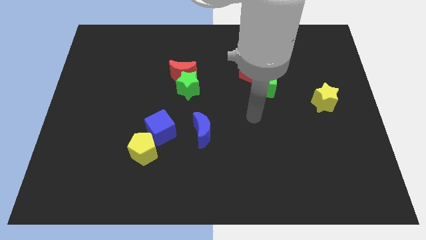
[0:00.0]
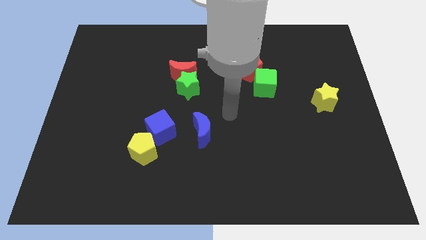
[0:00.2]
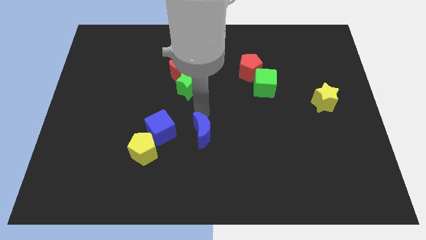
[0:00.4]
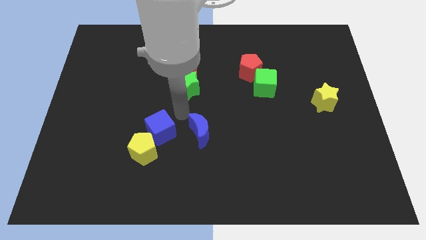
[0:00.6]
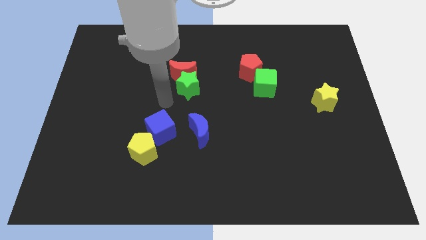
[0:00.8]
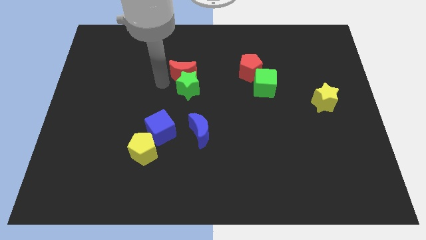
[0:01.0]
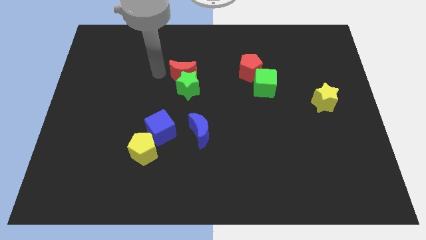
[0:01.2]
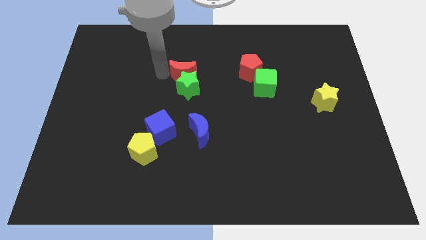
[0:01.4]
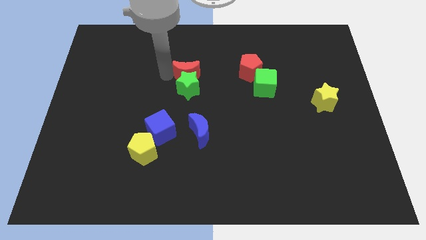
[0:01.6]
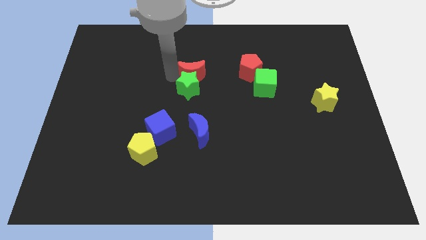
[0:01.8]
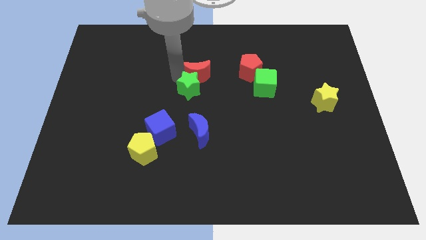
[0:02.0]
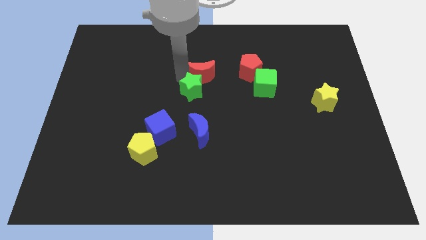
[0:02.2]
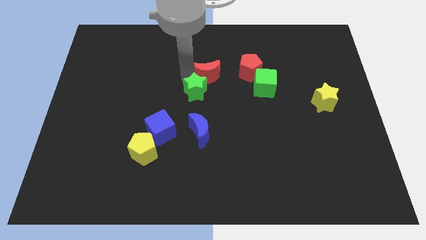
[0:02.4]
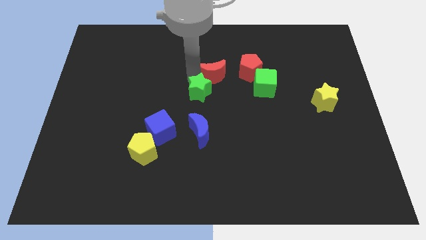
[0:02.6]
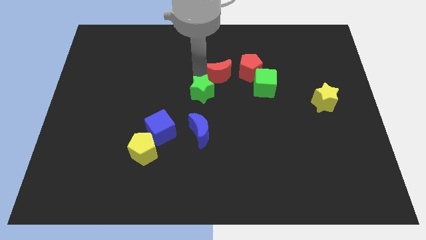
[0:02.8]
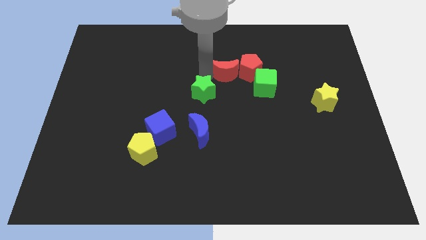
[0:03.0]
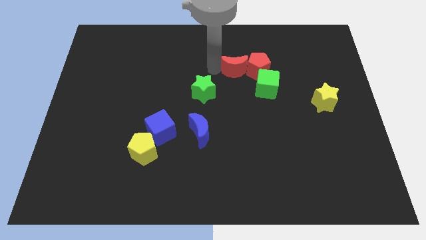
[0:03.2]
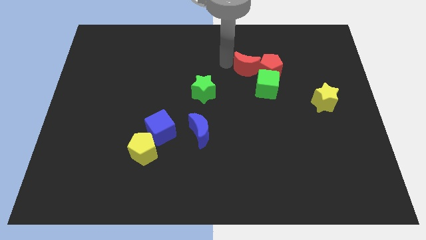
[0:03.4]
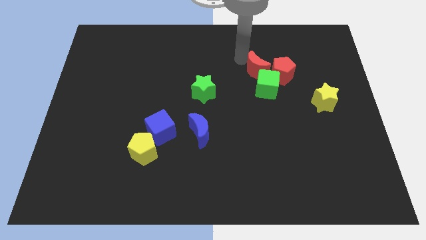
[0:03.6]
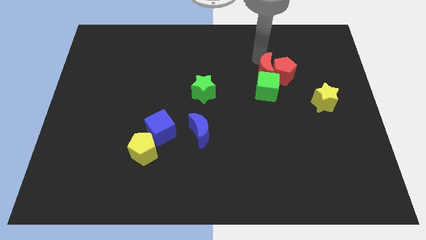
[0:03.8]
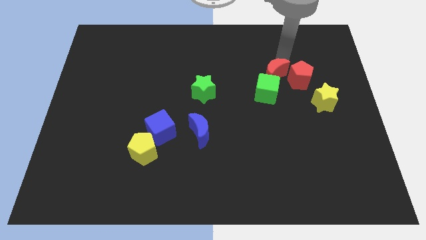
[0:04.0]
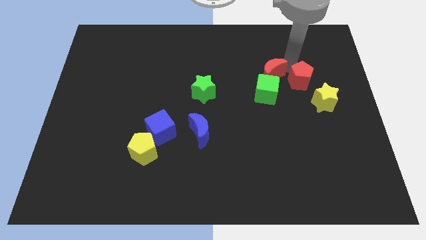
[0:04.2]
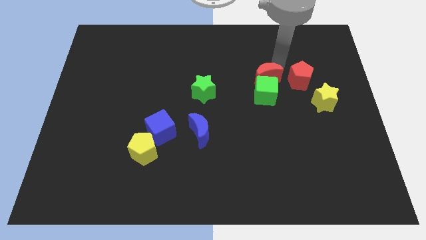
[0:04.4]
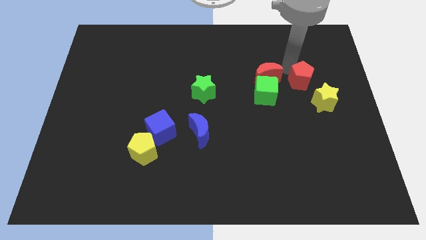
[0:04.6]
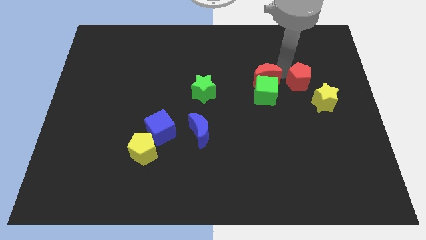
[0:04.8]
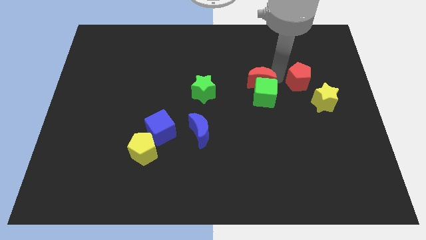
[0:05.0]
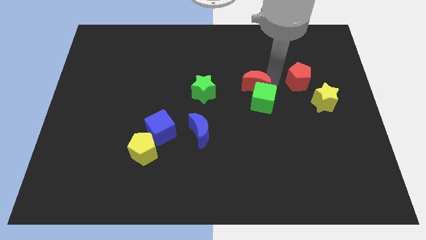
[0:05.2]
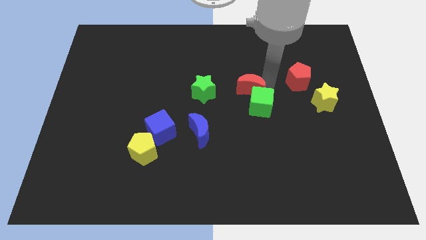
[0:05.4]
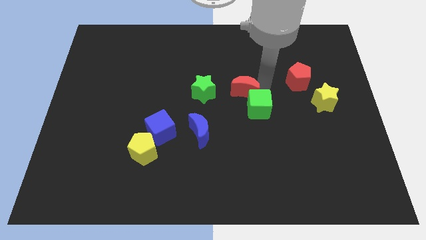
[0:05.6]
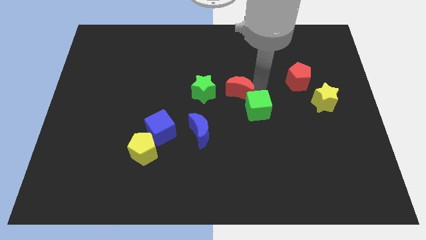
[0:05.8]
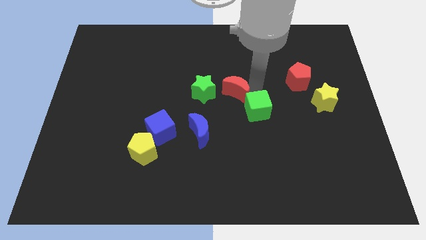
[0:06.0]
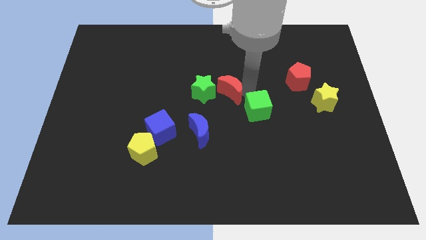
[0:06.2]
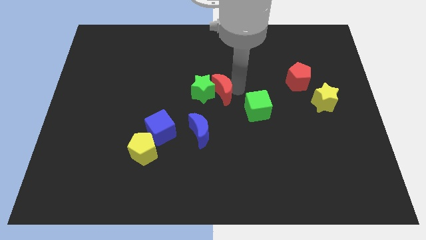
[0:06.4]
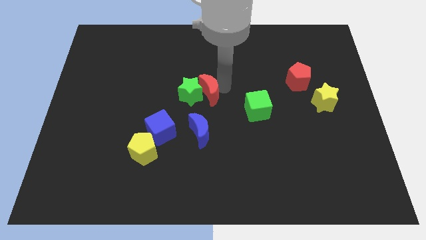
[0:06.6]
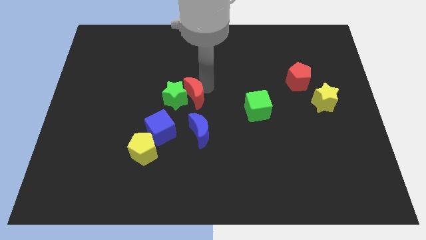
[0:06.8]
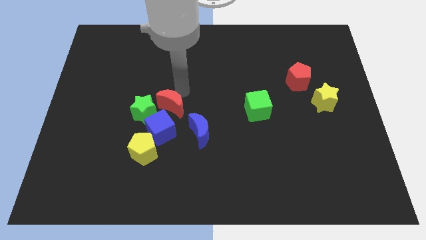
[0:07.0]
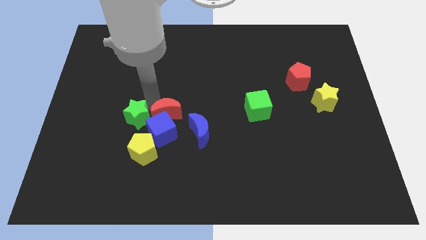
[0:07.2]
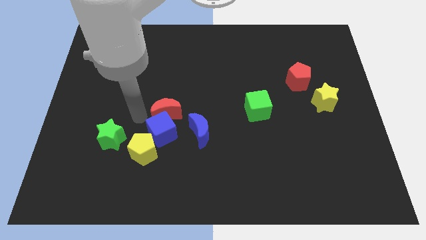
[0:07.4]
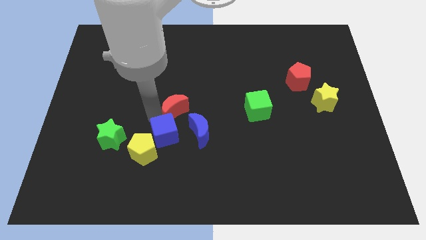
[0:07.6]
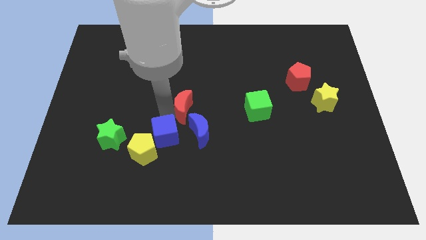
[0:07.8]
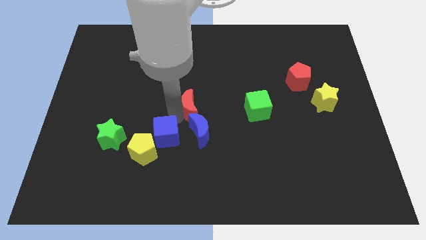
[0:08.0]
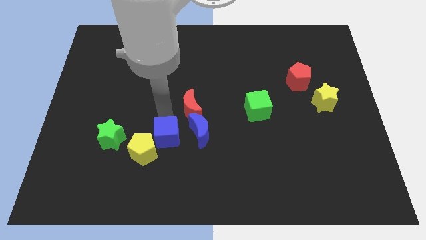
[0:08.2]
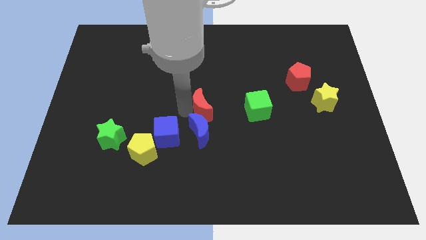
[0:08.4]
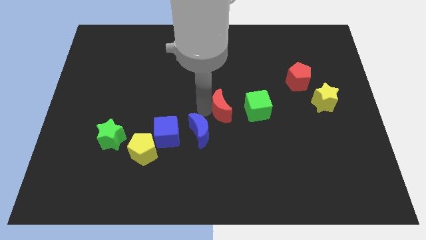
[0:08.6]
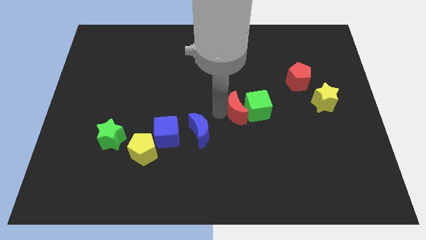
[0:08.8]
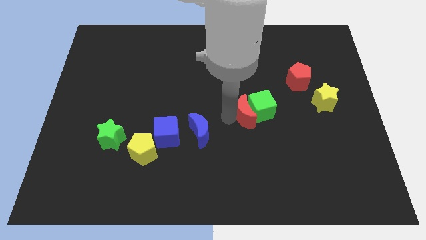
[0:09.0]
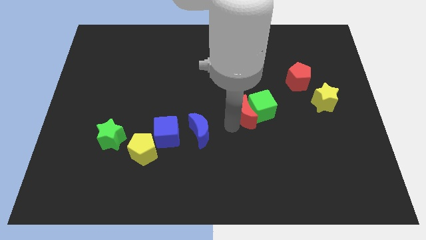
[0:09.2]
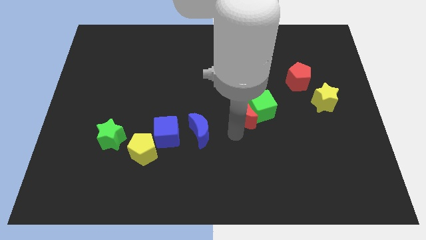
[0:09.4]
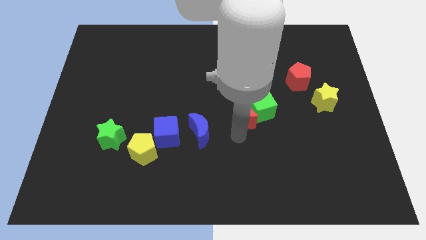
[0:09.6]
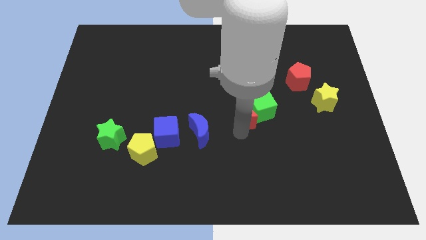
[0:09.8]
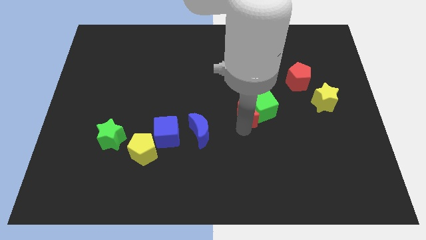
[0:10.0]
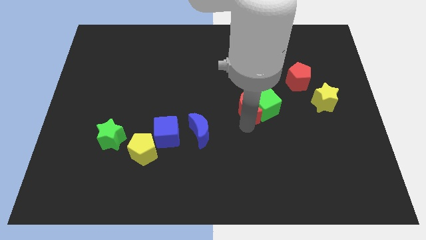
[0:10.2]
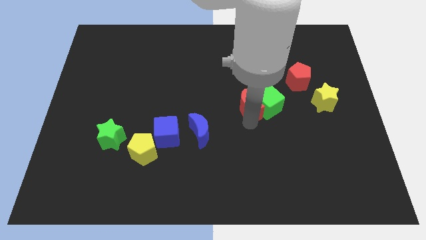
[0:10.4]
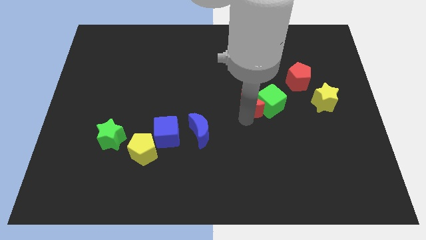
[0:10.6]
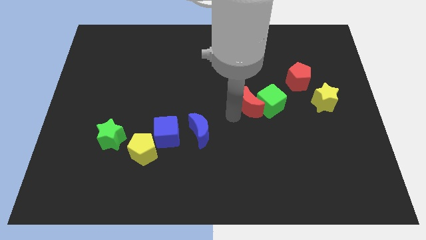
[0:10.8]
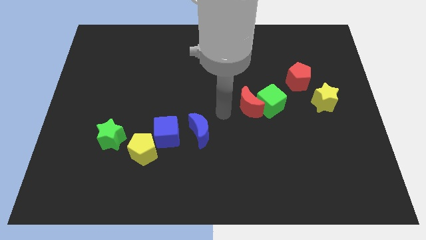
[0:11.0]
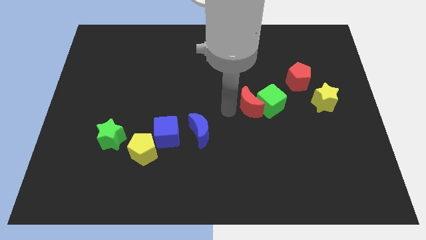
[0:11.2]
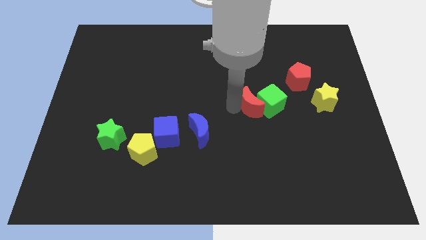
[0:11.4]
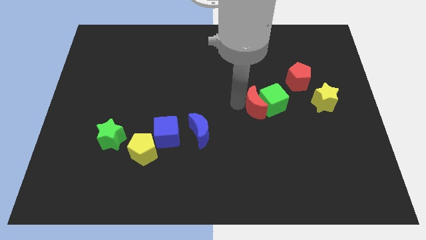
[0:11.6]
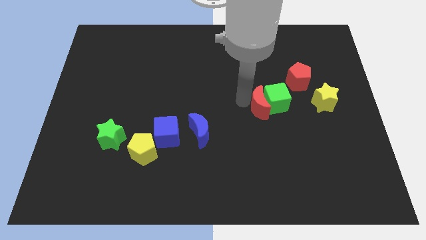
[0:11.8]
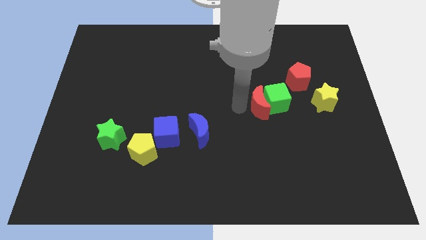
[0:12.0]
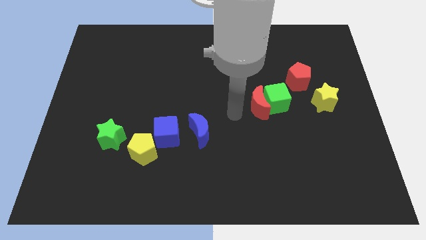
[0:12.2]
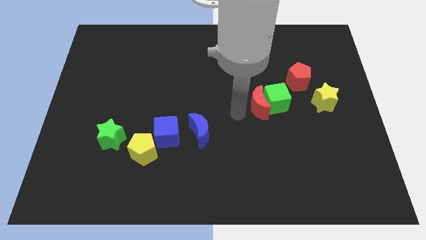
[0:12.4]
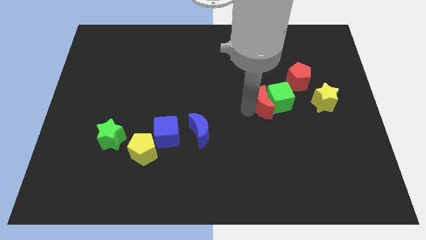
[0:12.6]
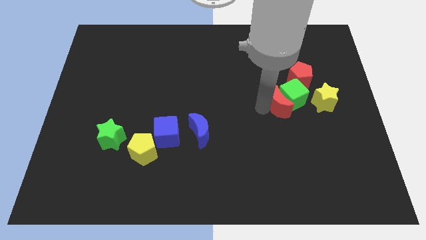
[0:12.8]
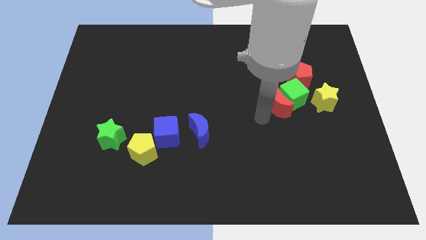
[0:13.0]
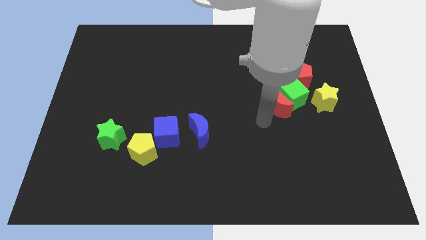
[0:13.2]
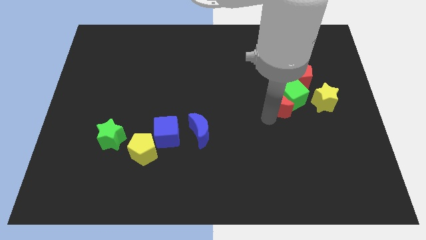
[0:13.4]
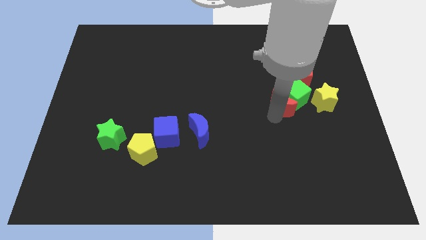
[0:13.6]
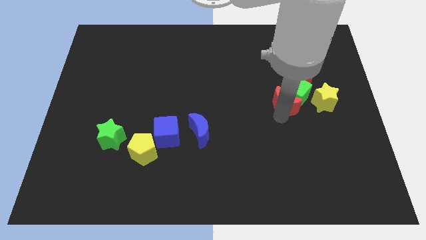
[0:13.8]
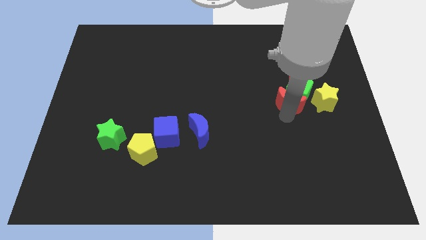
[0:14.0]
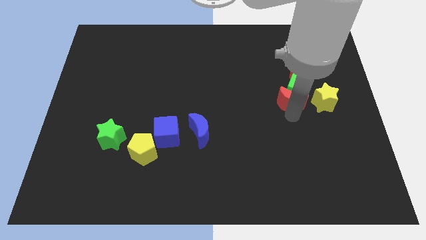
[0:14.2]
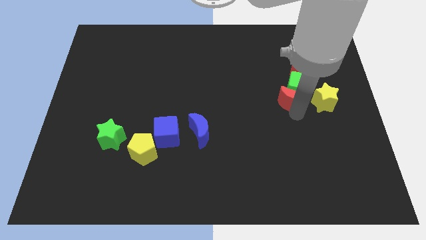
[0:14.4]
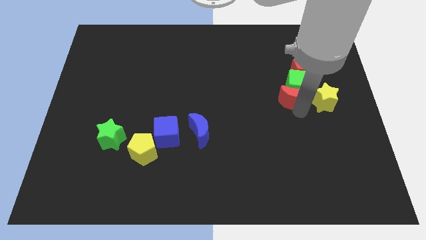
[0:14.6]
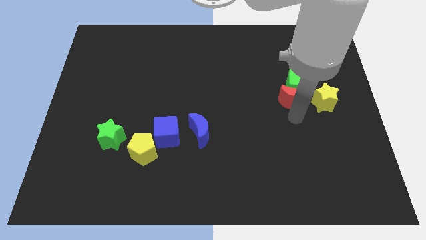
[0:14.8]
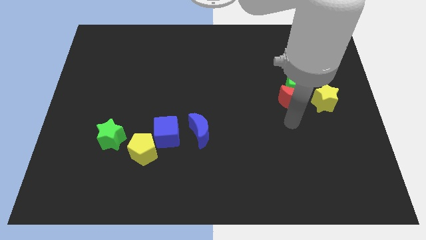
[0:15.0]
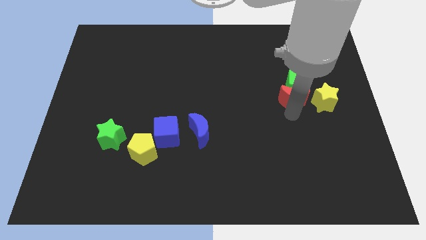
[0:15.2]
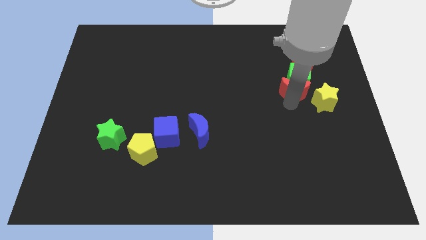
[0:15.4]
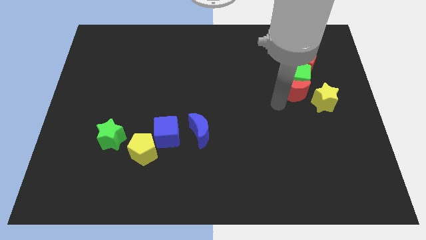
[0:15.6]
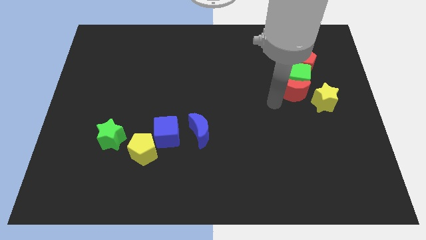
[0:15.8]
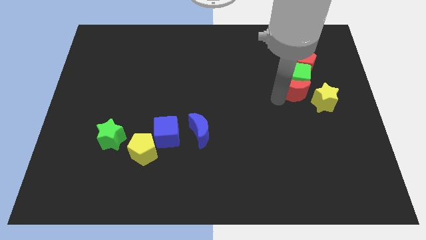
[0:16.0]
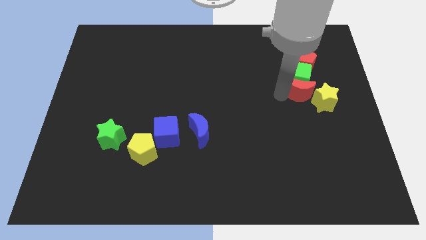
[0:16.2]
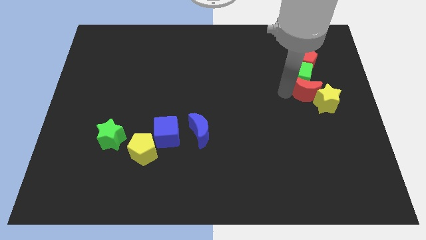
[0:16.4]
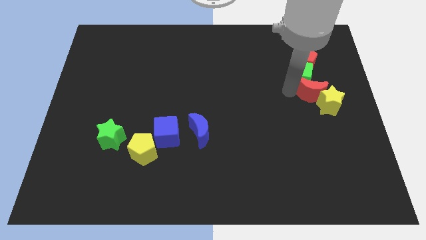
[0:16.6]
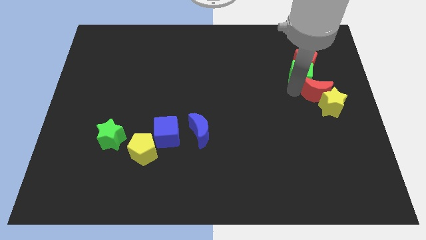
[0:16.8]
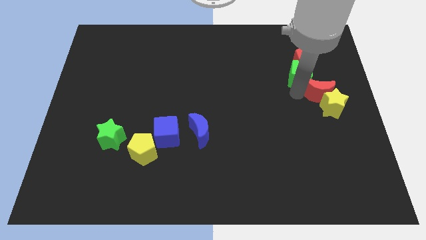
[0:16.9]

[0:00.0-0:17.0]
move the red moon to the right side of the board
